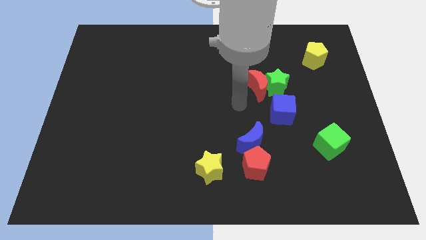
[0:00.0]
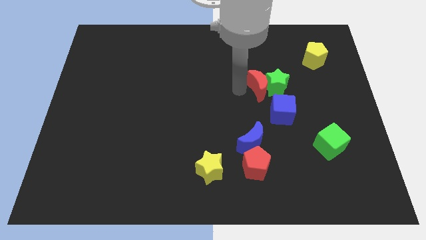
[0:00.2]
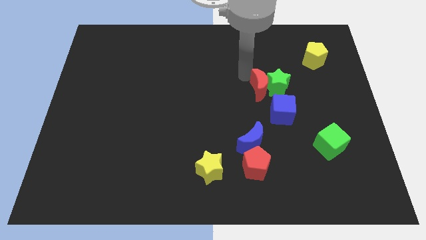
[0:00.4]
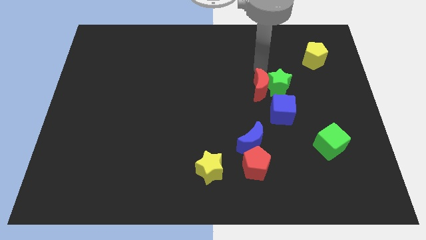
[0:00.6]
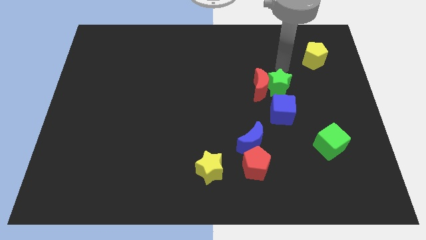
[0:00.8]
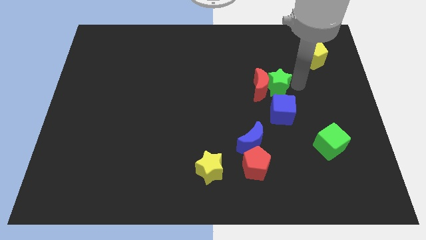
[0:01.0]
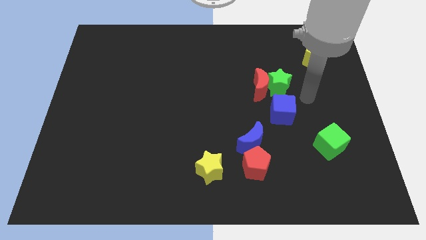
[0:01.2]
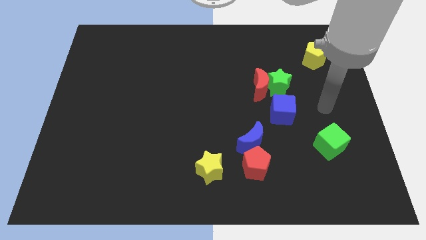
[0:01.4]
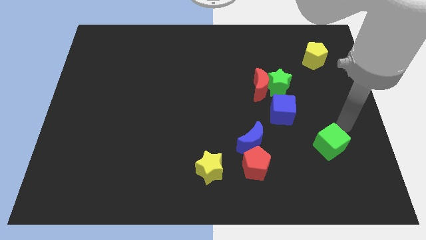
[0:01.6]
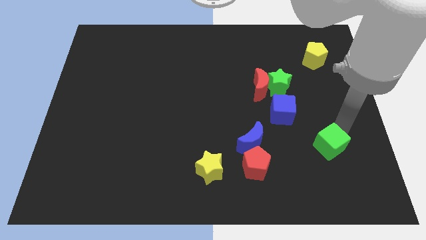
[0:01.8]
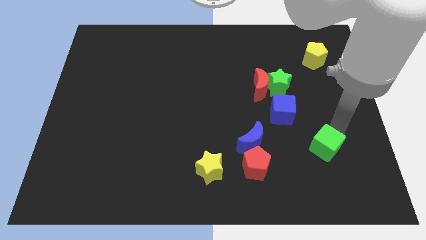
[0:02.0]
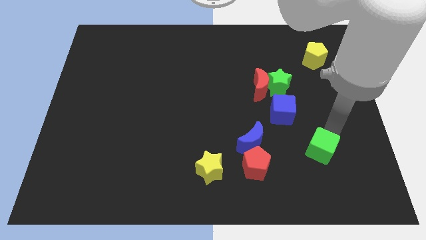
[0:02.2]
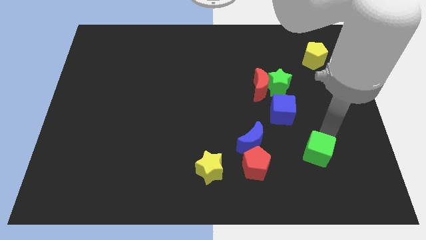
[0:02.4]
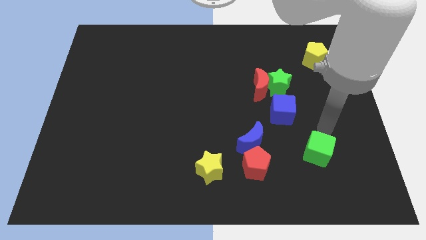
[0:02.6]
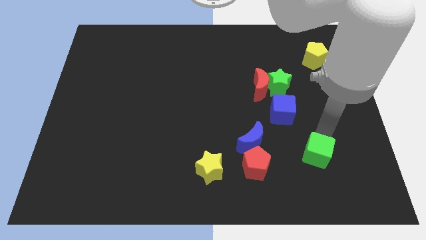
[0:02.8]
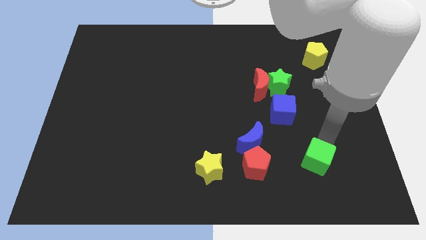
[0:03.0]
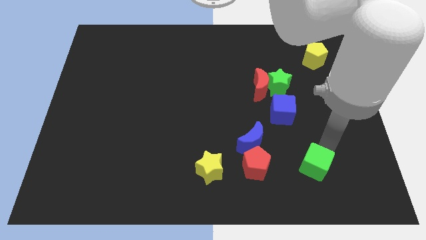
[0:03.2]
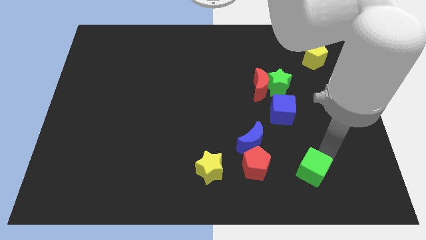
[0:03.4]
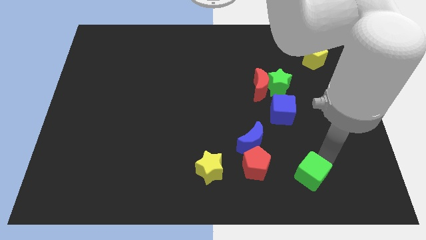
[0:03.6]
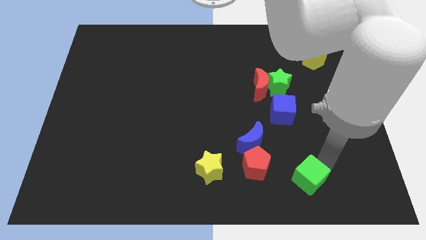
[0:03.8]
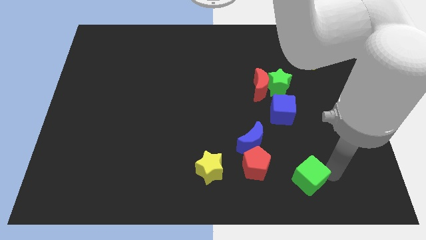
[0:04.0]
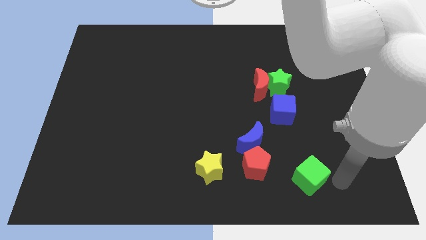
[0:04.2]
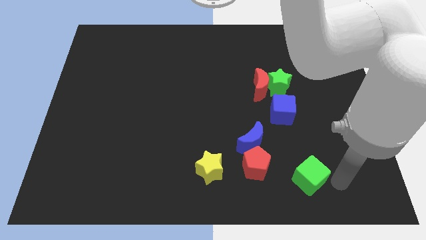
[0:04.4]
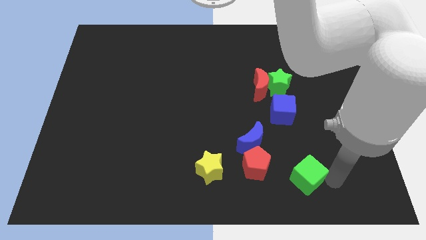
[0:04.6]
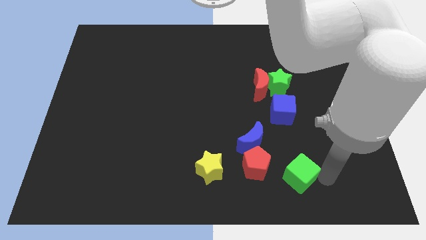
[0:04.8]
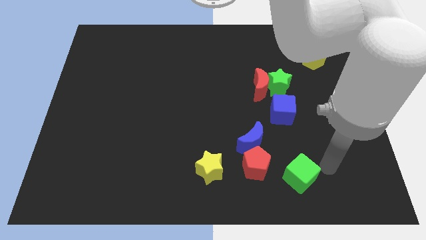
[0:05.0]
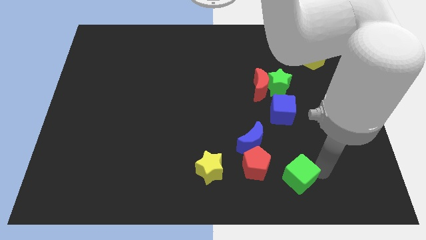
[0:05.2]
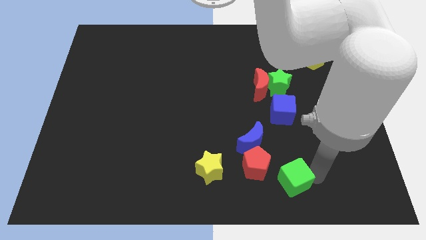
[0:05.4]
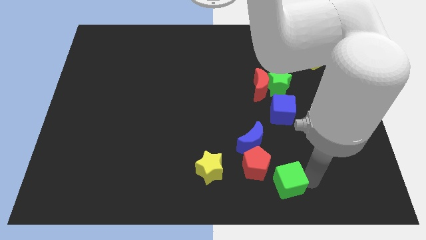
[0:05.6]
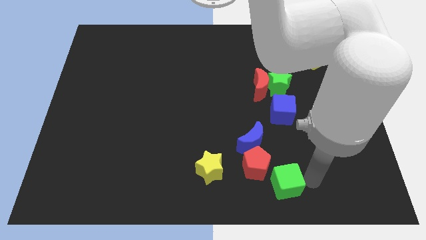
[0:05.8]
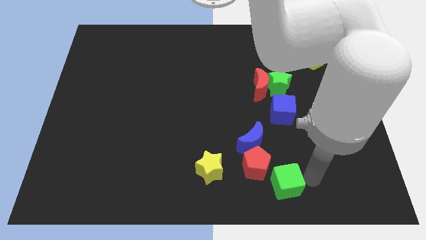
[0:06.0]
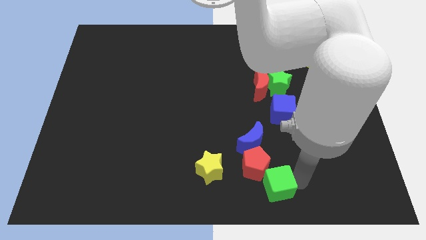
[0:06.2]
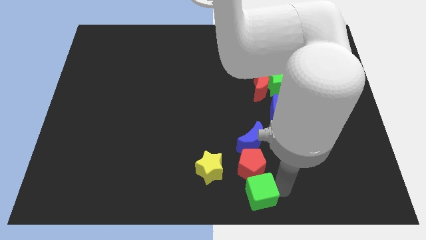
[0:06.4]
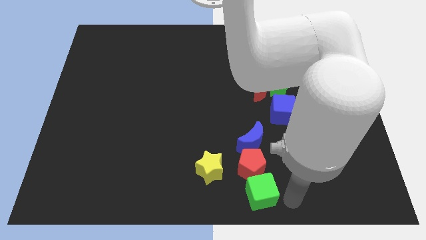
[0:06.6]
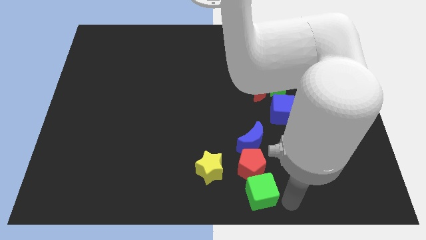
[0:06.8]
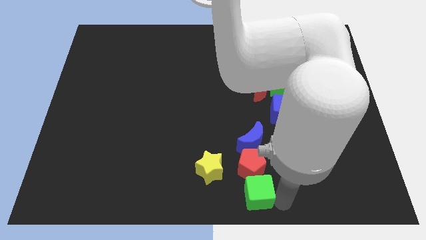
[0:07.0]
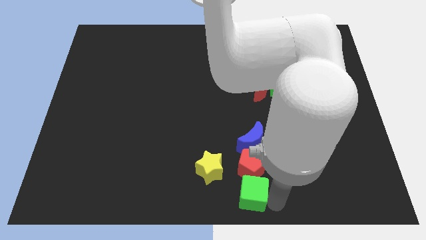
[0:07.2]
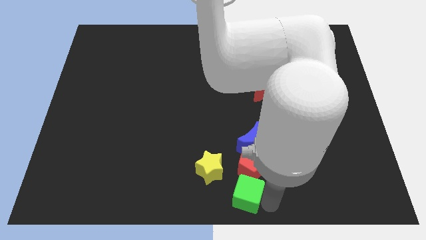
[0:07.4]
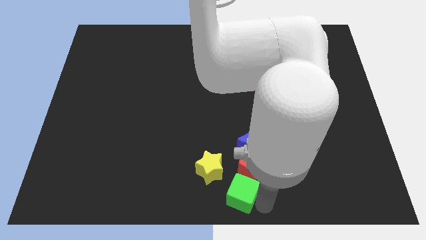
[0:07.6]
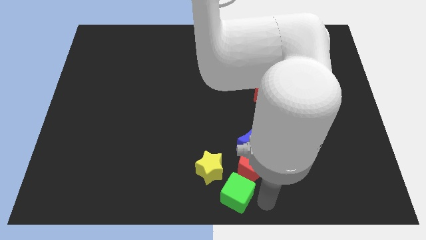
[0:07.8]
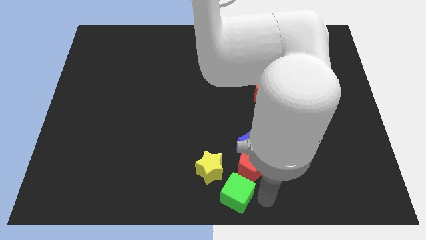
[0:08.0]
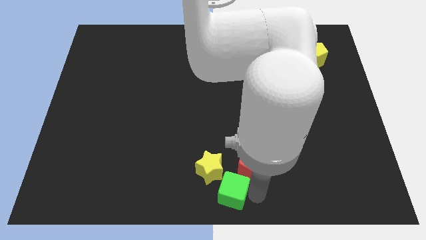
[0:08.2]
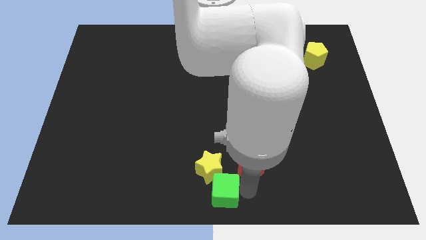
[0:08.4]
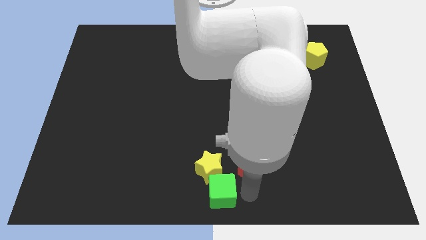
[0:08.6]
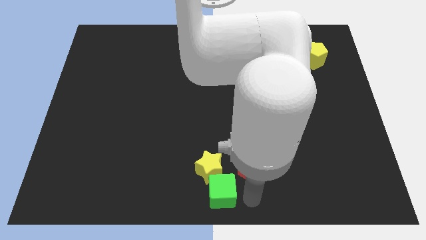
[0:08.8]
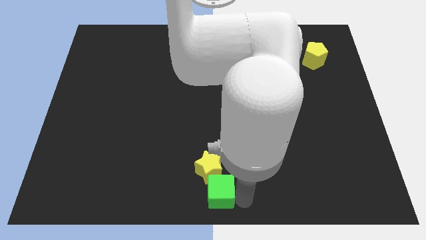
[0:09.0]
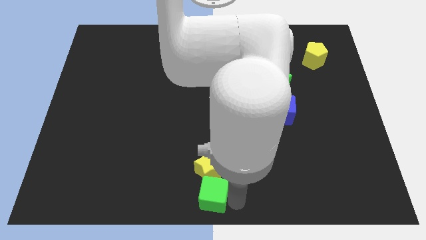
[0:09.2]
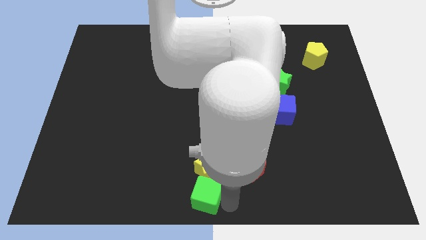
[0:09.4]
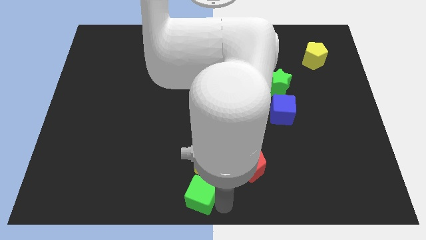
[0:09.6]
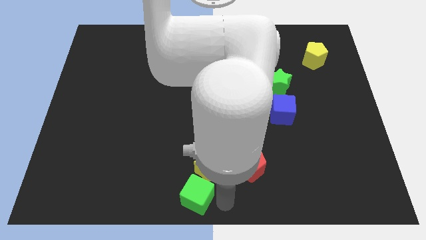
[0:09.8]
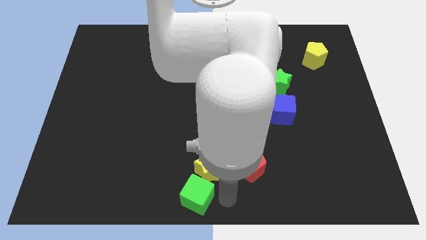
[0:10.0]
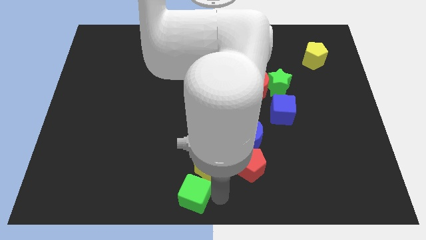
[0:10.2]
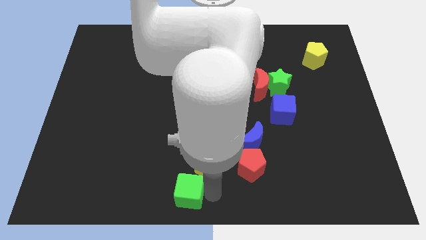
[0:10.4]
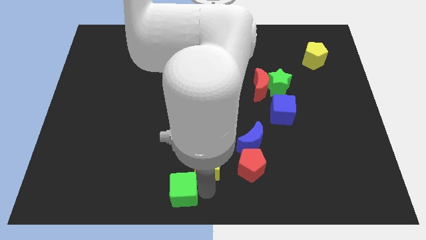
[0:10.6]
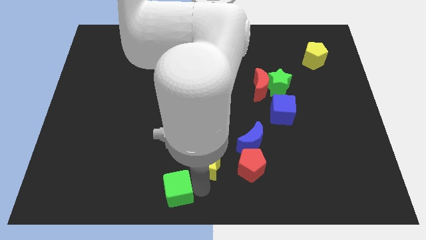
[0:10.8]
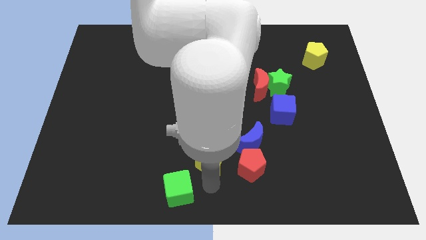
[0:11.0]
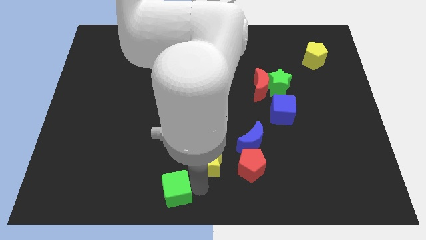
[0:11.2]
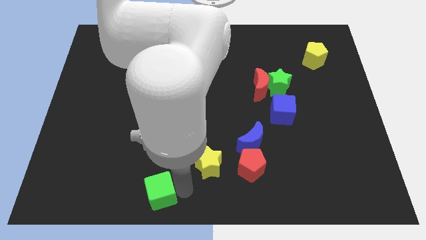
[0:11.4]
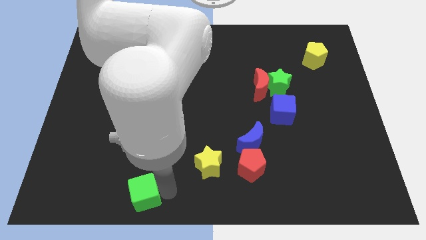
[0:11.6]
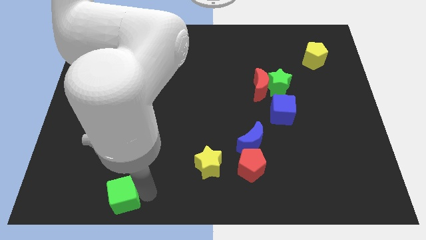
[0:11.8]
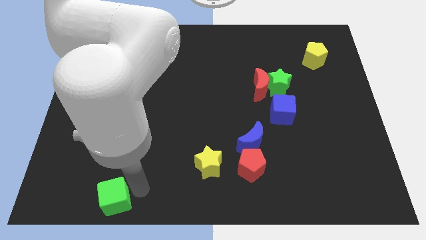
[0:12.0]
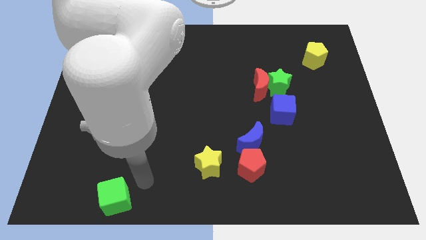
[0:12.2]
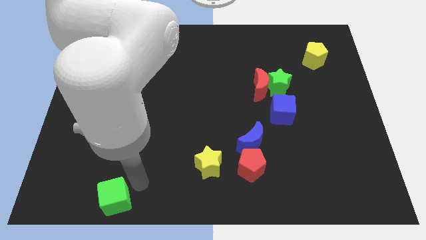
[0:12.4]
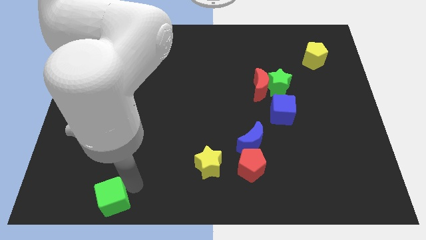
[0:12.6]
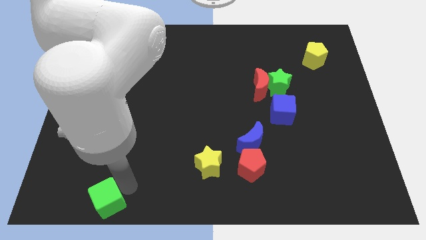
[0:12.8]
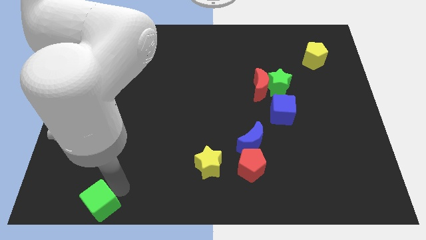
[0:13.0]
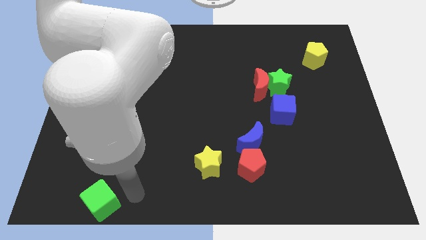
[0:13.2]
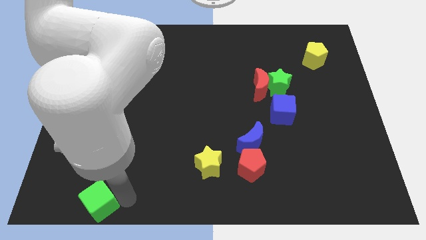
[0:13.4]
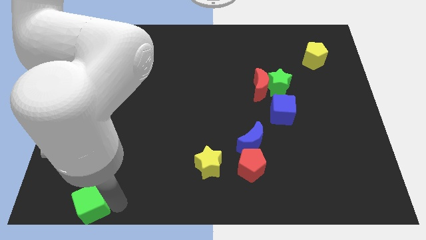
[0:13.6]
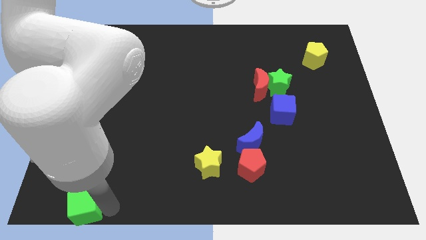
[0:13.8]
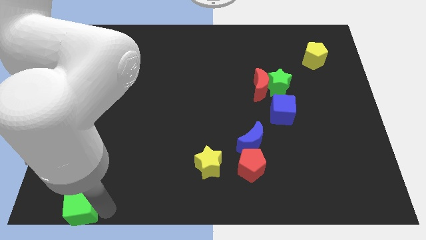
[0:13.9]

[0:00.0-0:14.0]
move the green cube to the bottom left of the board

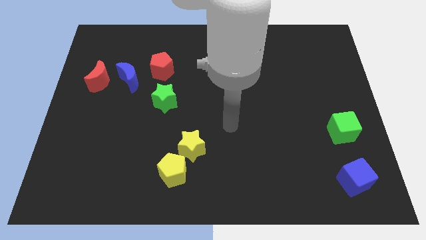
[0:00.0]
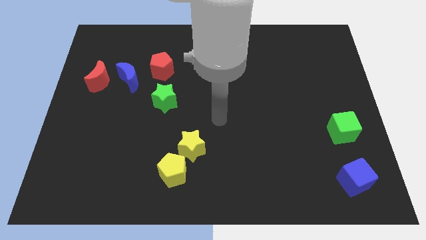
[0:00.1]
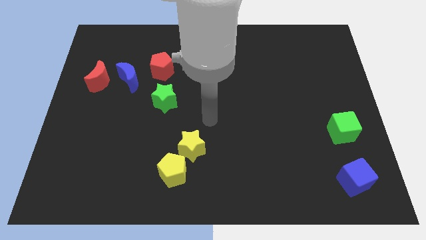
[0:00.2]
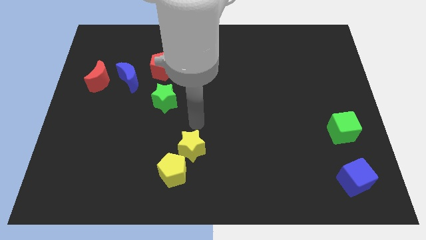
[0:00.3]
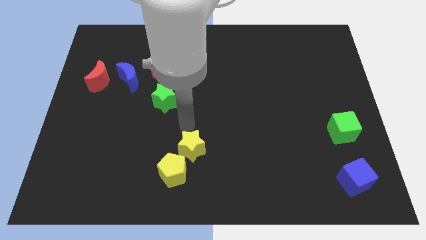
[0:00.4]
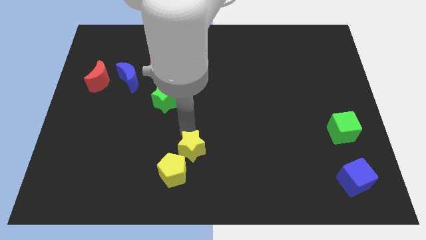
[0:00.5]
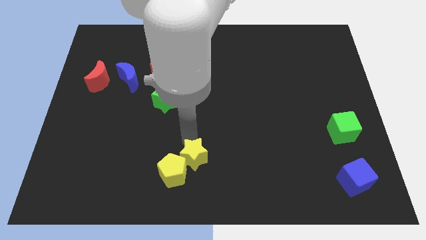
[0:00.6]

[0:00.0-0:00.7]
push the yellow star to the bottom
